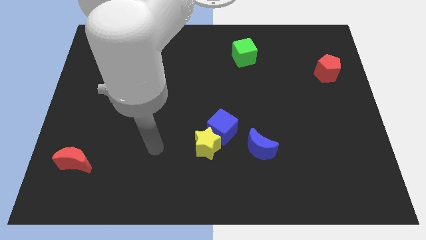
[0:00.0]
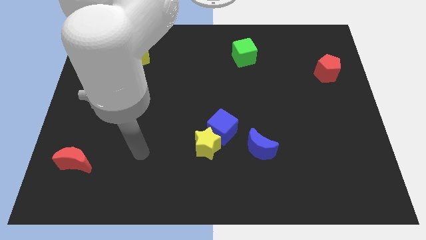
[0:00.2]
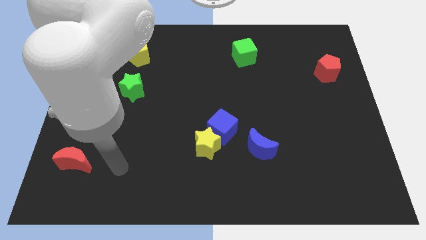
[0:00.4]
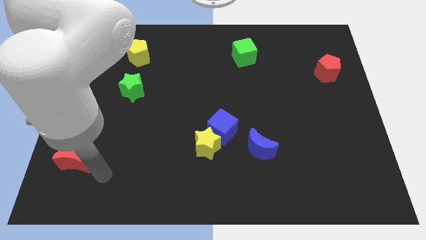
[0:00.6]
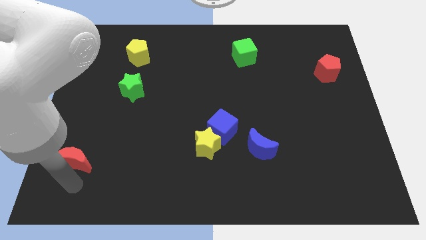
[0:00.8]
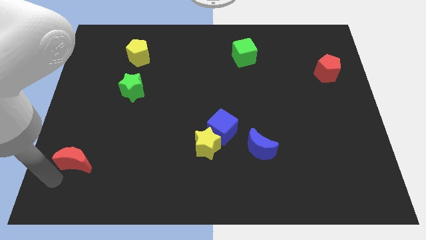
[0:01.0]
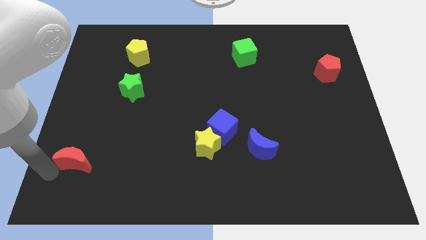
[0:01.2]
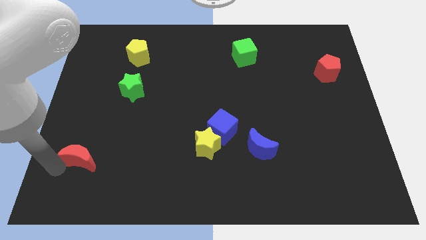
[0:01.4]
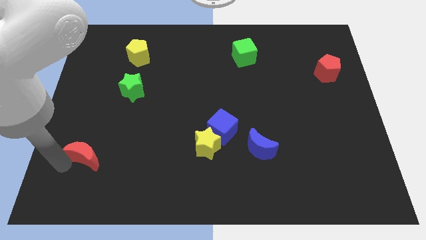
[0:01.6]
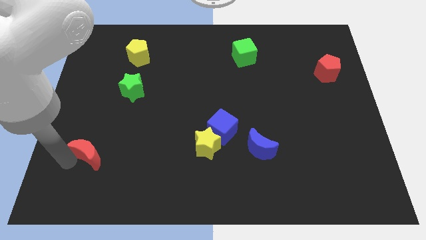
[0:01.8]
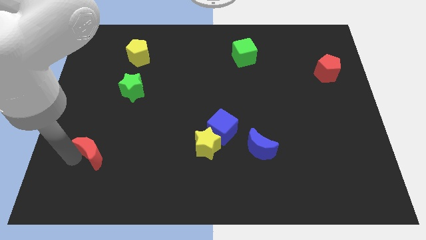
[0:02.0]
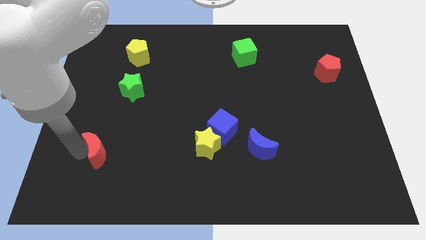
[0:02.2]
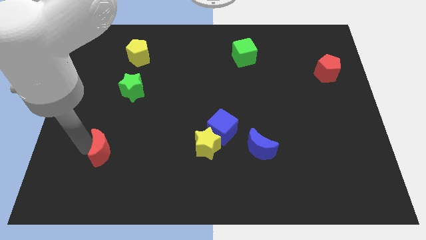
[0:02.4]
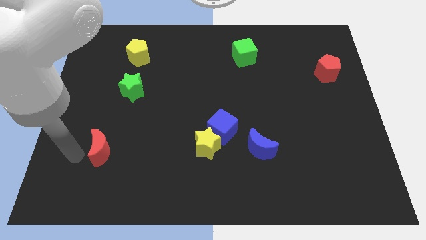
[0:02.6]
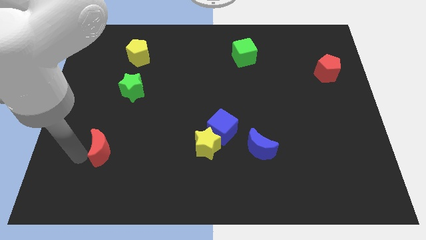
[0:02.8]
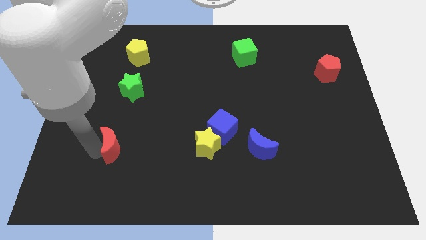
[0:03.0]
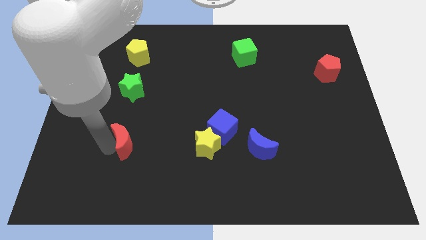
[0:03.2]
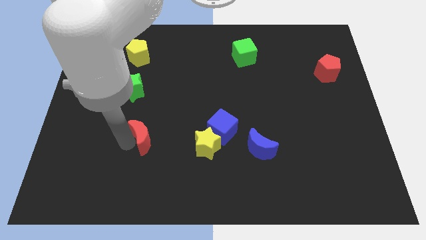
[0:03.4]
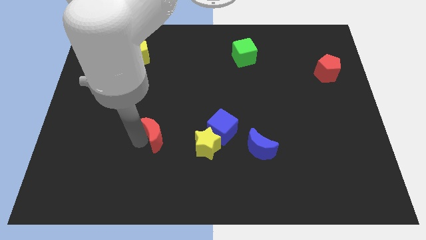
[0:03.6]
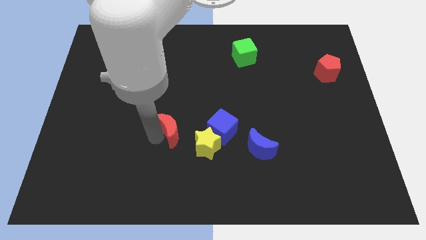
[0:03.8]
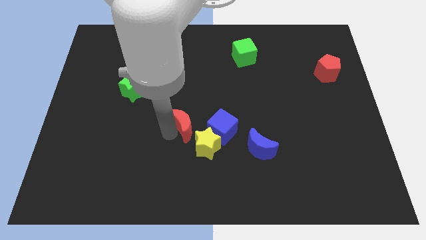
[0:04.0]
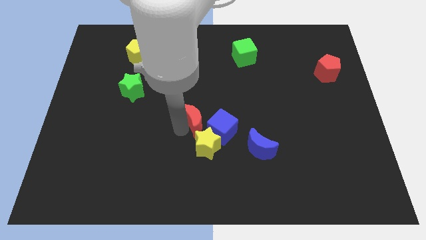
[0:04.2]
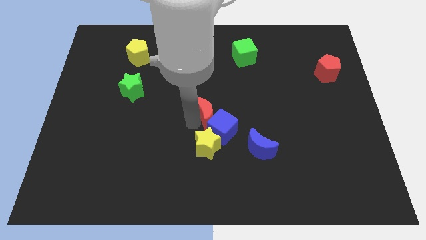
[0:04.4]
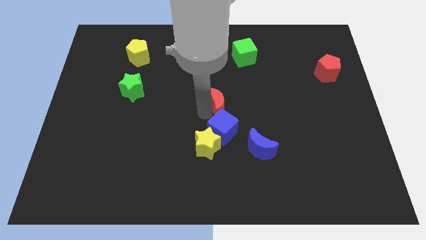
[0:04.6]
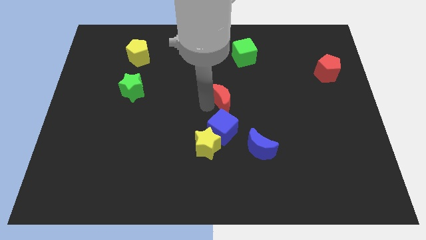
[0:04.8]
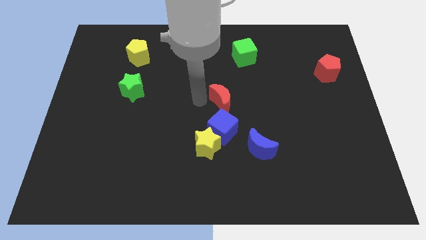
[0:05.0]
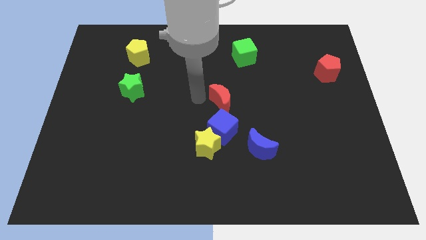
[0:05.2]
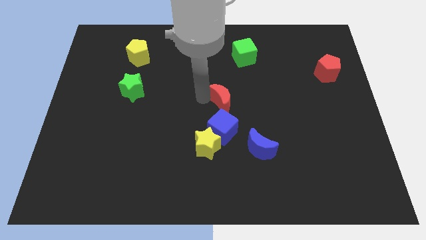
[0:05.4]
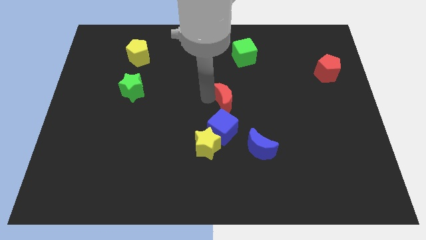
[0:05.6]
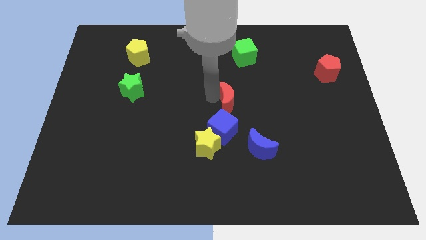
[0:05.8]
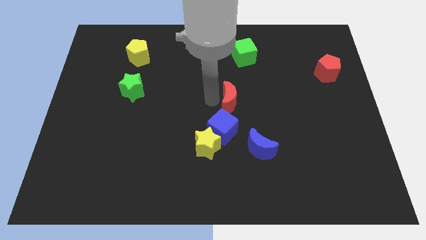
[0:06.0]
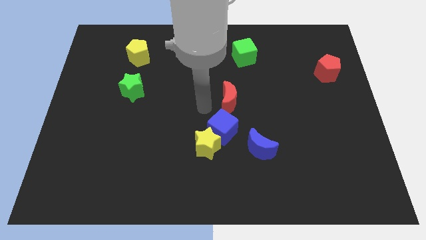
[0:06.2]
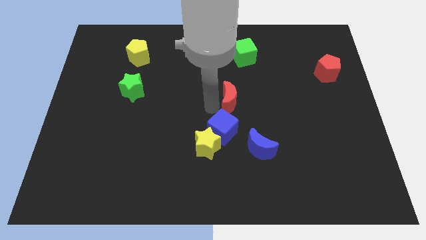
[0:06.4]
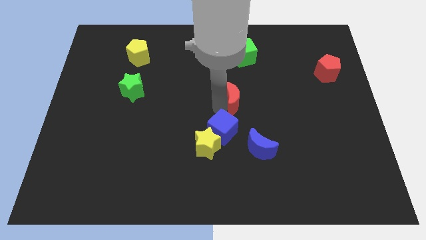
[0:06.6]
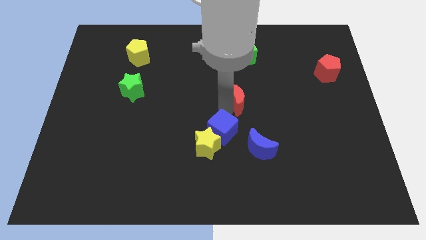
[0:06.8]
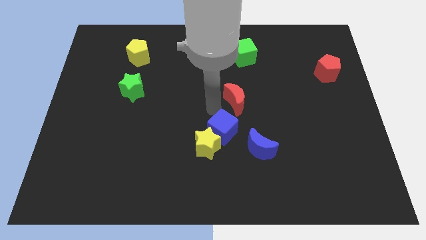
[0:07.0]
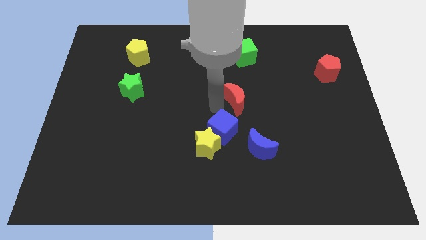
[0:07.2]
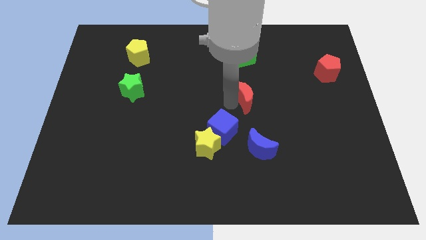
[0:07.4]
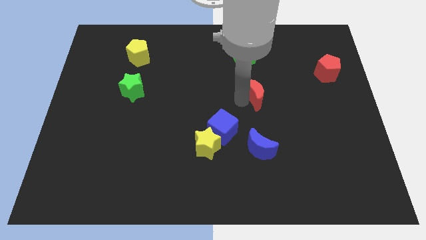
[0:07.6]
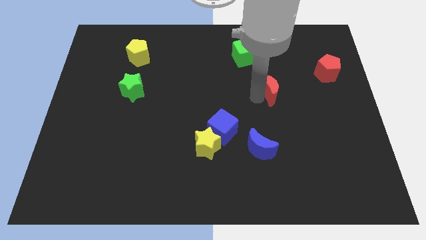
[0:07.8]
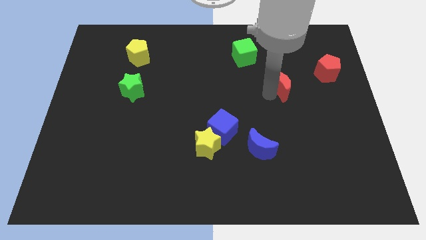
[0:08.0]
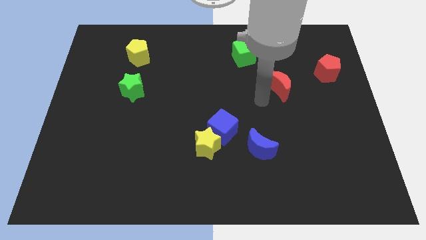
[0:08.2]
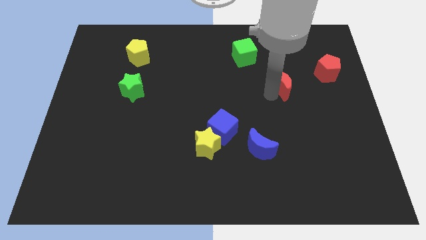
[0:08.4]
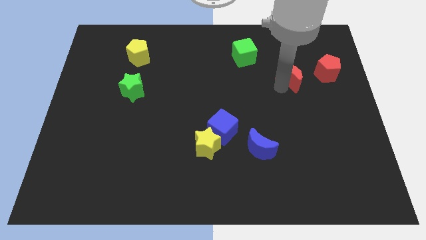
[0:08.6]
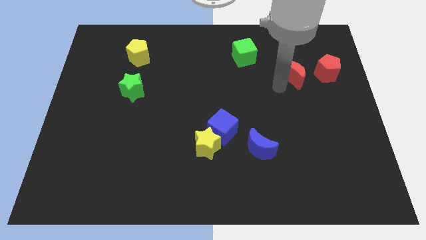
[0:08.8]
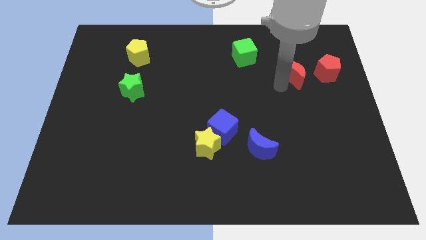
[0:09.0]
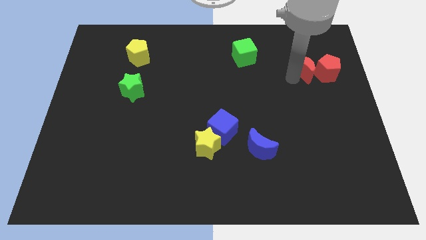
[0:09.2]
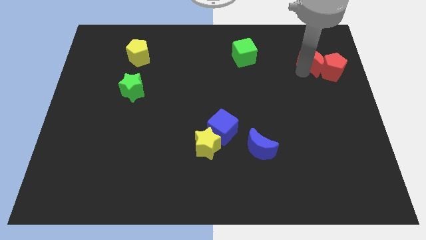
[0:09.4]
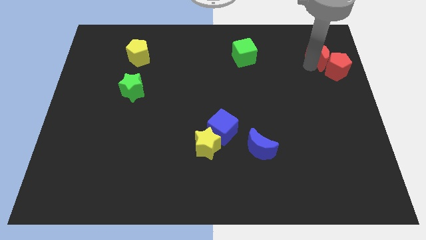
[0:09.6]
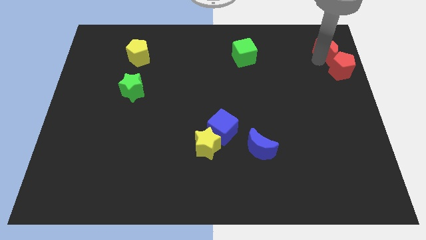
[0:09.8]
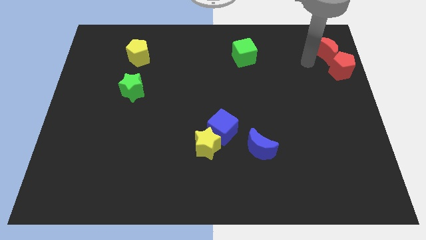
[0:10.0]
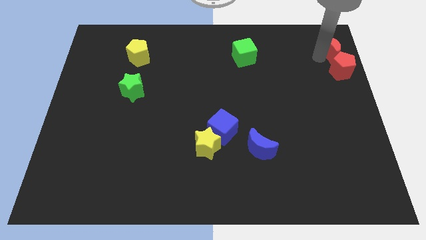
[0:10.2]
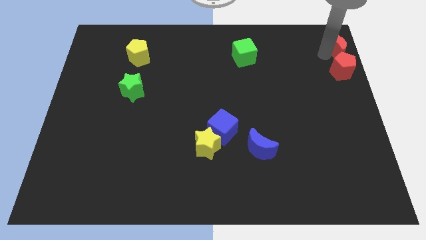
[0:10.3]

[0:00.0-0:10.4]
push the red moon to the top right
